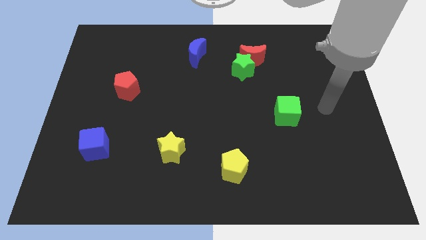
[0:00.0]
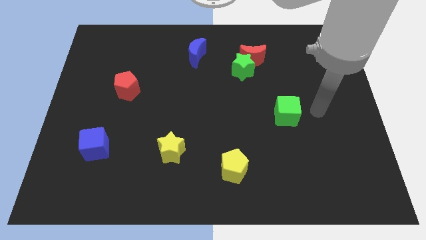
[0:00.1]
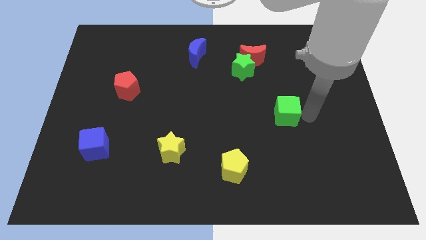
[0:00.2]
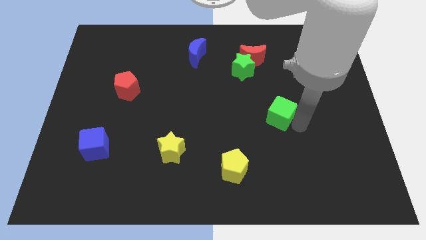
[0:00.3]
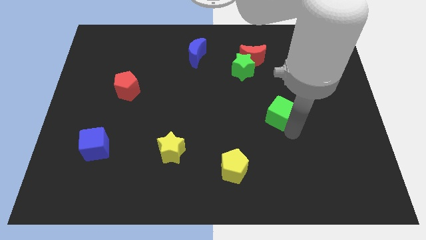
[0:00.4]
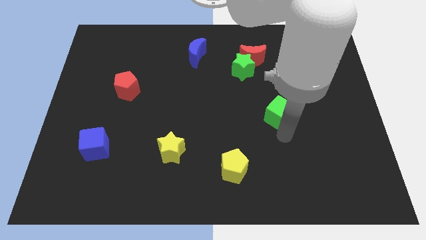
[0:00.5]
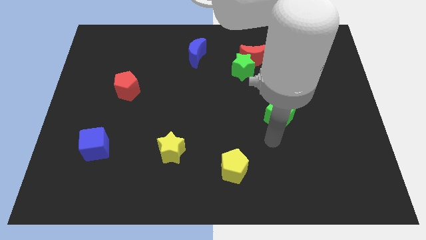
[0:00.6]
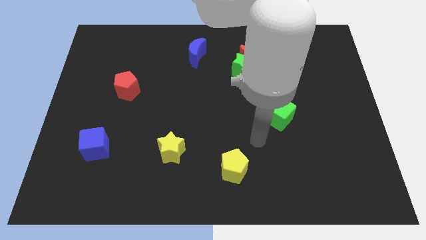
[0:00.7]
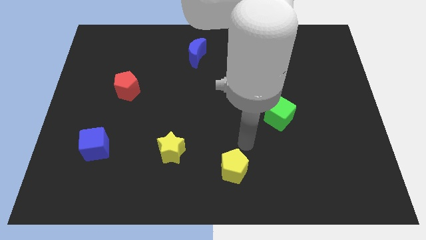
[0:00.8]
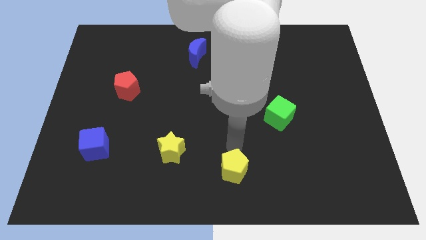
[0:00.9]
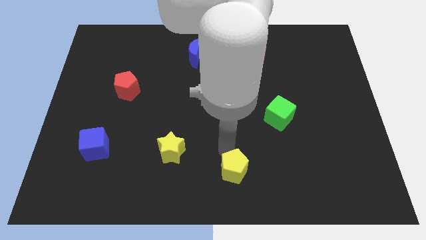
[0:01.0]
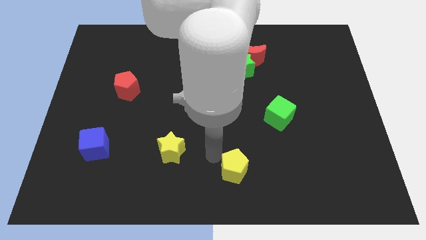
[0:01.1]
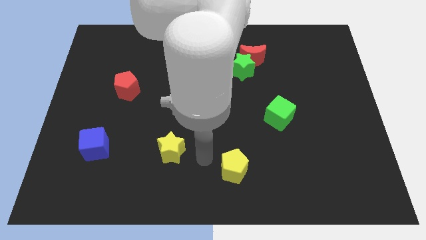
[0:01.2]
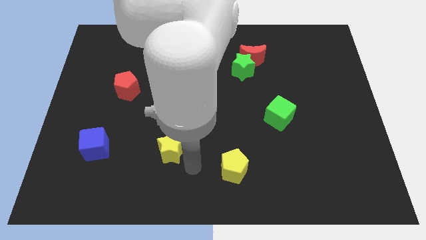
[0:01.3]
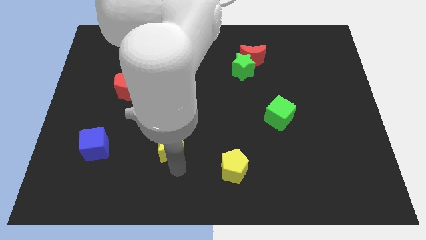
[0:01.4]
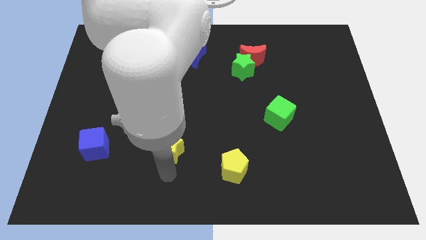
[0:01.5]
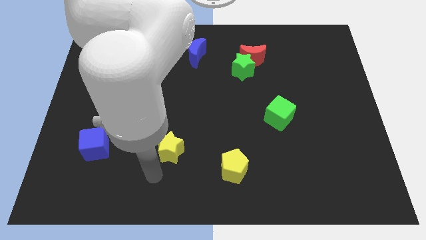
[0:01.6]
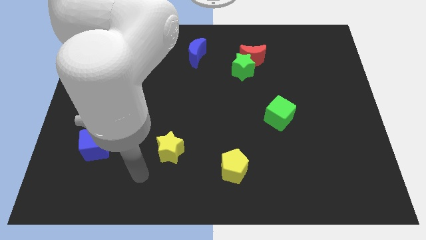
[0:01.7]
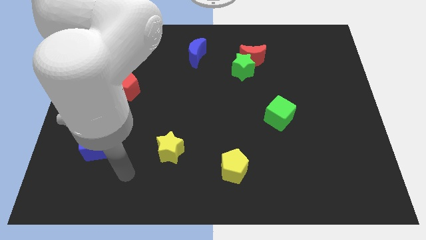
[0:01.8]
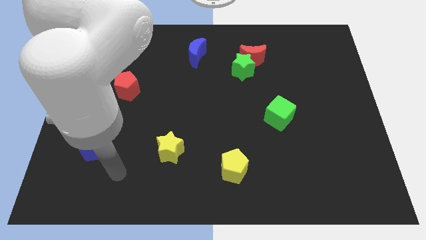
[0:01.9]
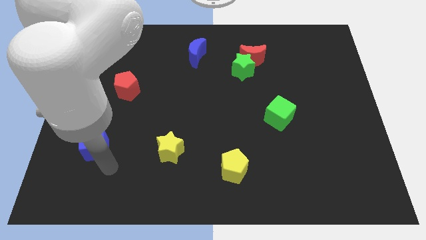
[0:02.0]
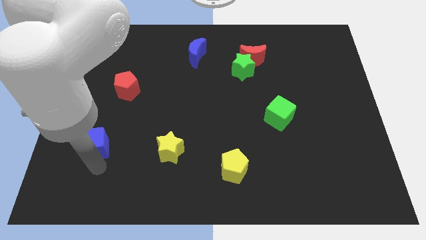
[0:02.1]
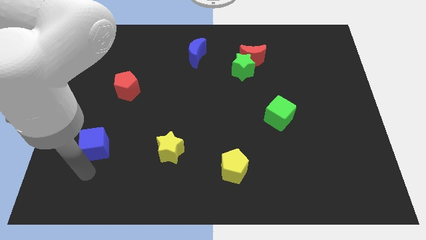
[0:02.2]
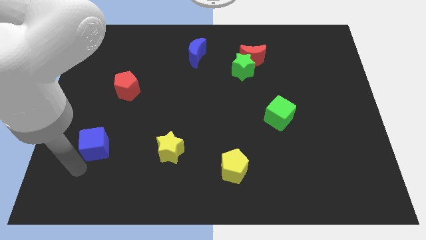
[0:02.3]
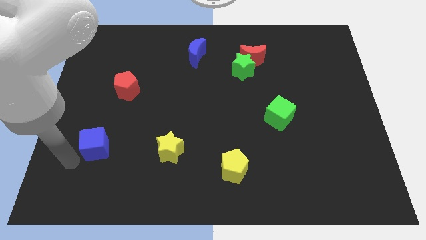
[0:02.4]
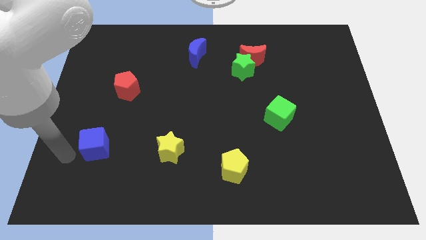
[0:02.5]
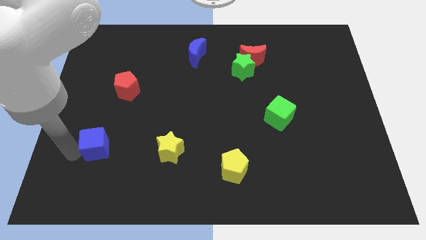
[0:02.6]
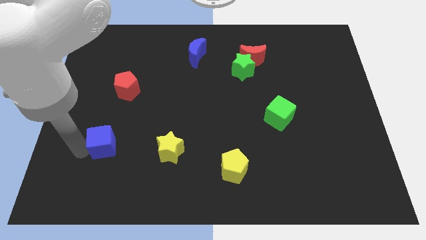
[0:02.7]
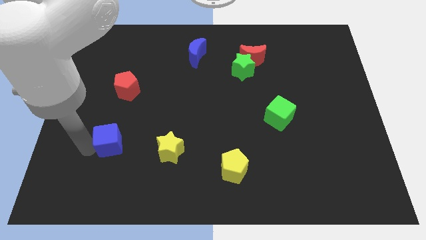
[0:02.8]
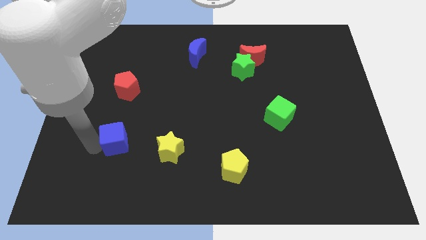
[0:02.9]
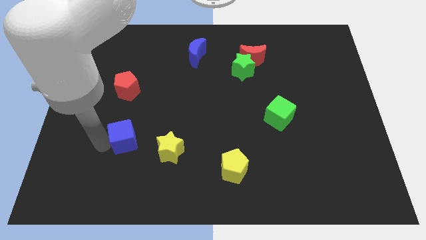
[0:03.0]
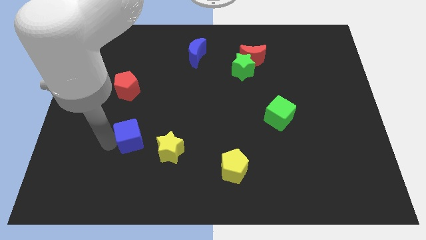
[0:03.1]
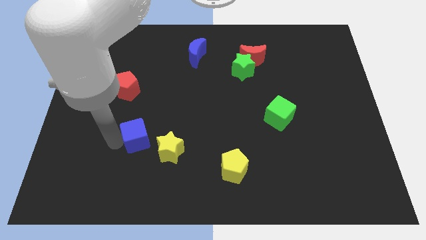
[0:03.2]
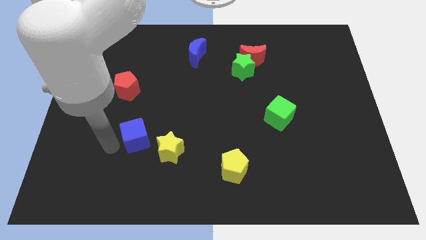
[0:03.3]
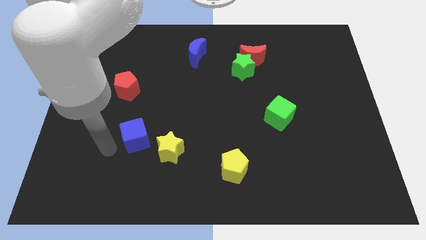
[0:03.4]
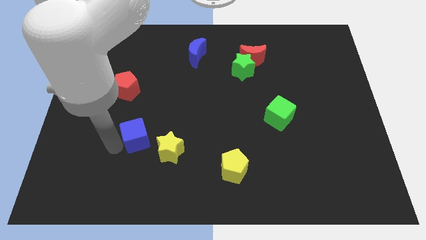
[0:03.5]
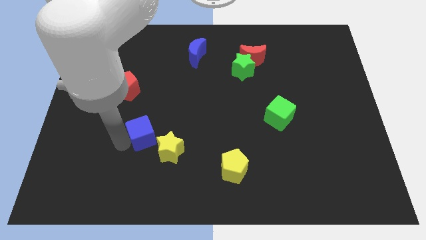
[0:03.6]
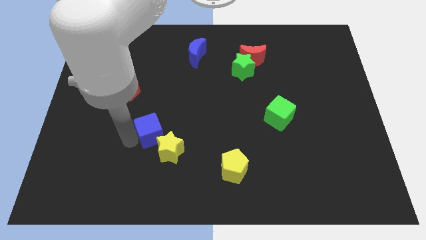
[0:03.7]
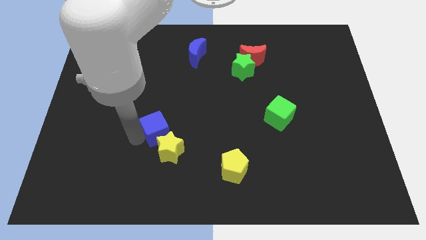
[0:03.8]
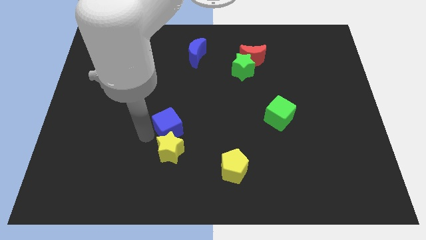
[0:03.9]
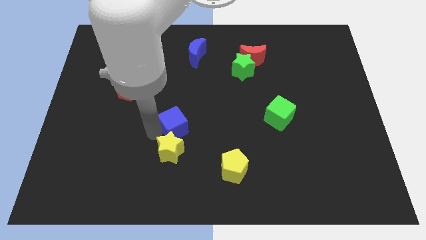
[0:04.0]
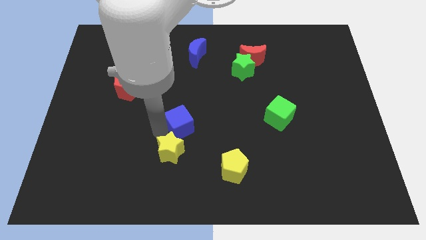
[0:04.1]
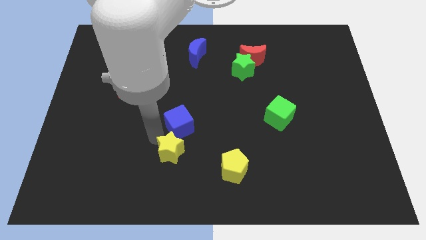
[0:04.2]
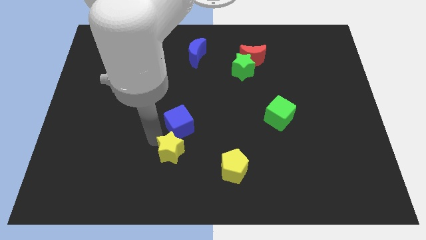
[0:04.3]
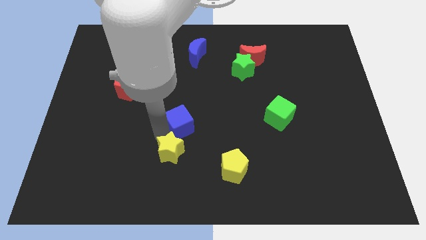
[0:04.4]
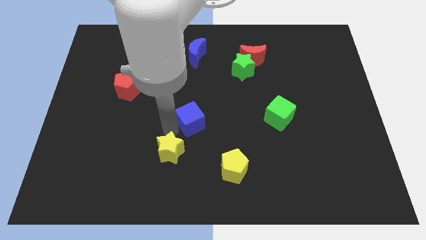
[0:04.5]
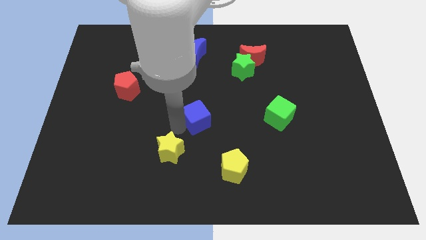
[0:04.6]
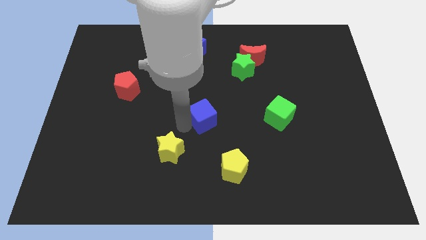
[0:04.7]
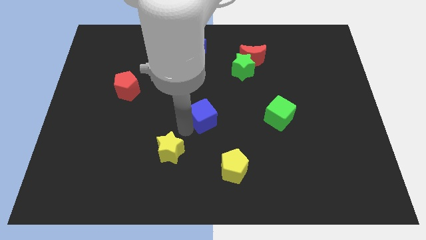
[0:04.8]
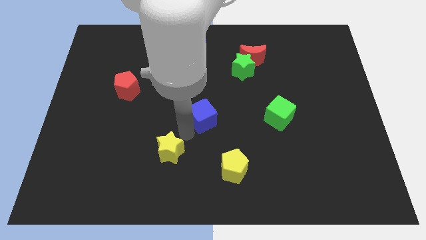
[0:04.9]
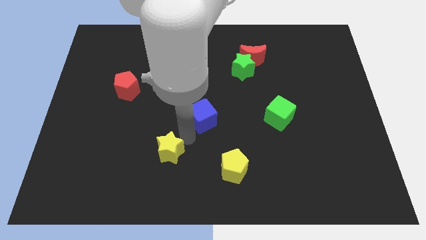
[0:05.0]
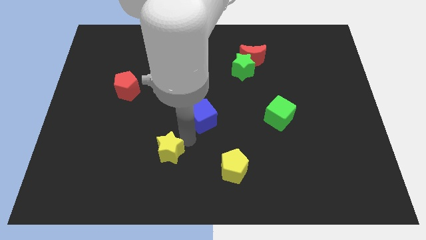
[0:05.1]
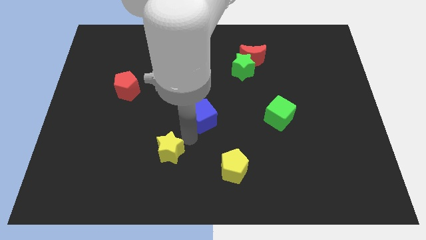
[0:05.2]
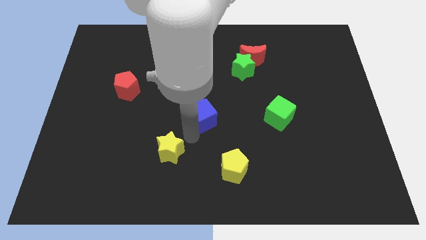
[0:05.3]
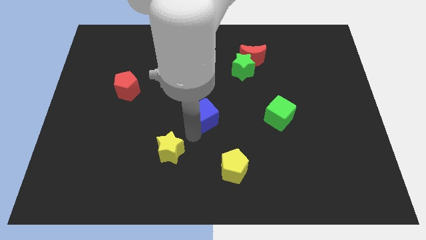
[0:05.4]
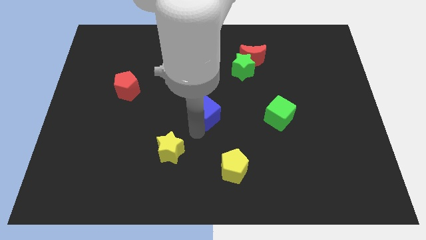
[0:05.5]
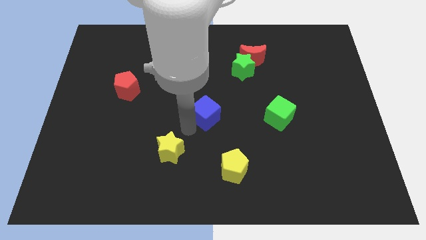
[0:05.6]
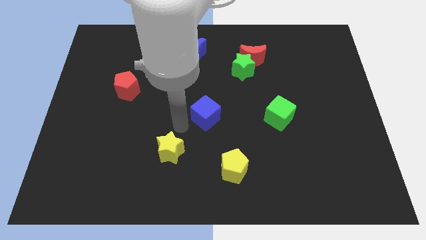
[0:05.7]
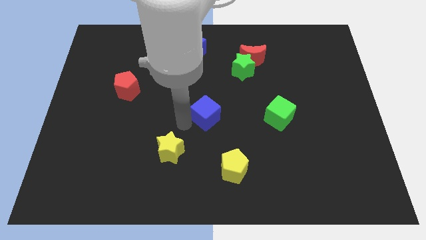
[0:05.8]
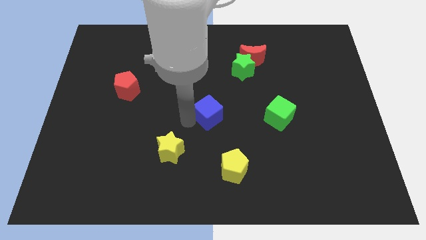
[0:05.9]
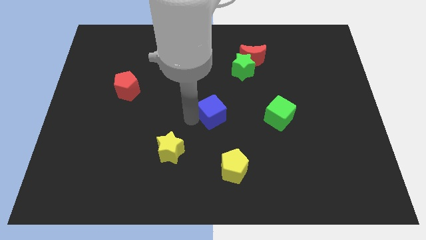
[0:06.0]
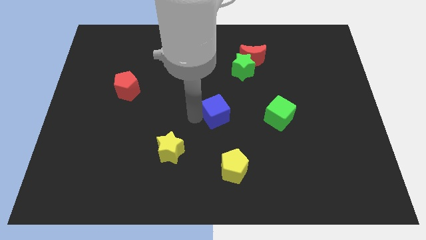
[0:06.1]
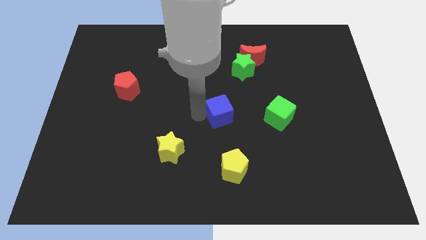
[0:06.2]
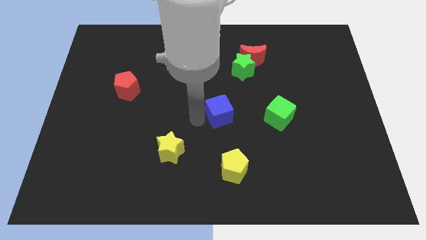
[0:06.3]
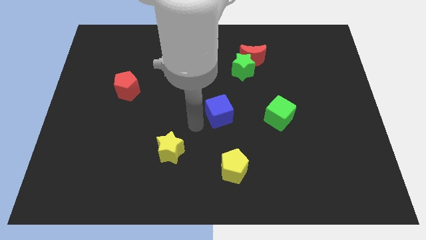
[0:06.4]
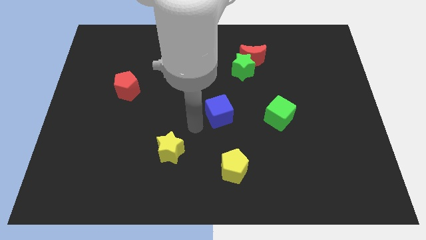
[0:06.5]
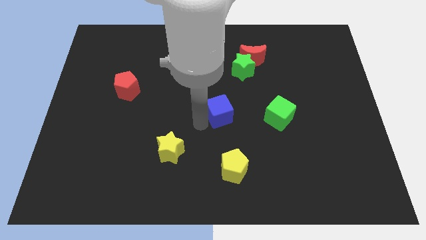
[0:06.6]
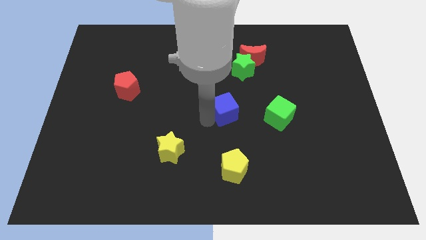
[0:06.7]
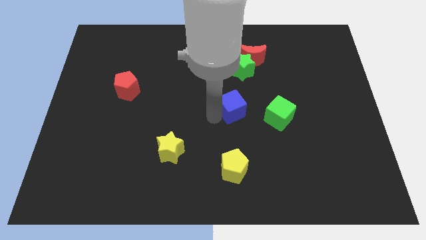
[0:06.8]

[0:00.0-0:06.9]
push the blue cube to the bottom of the green star
